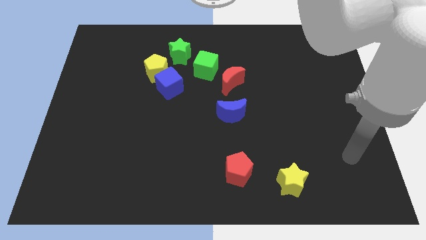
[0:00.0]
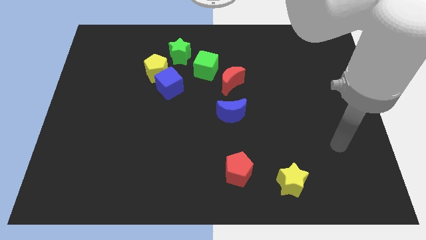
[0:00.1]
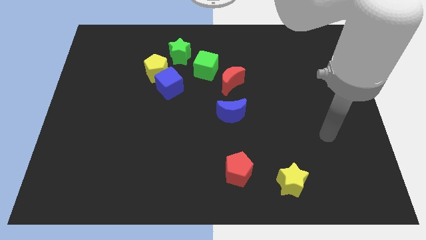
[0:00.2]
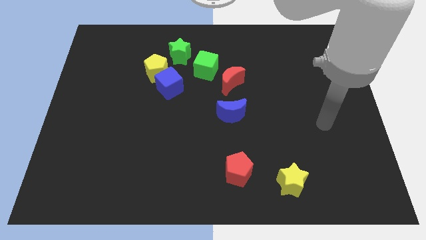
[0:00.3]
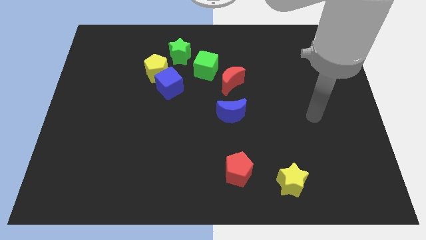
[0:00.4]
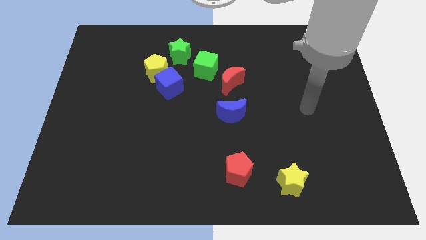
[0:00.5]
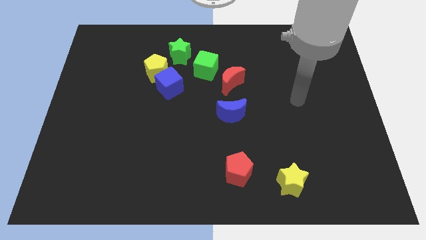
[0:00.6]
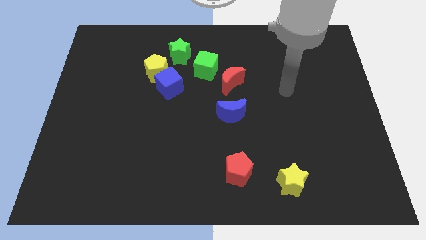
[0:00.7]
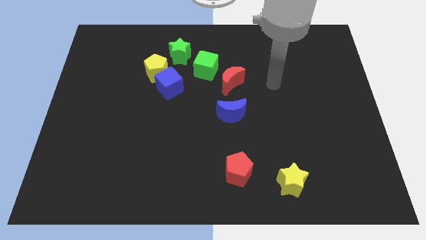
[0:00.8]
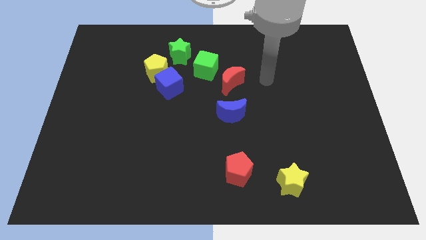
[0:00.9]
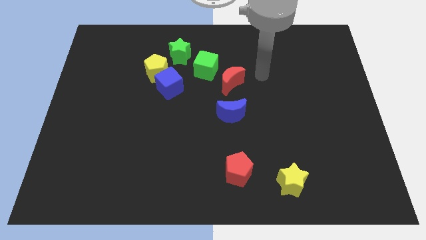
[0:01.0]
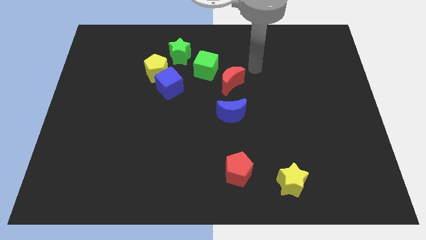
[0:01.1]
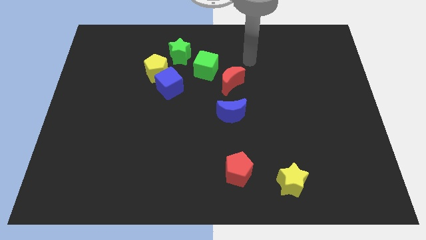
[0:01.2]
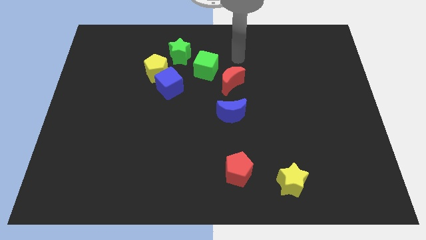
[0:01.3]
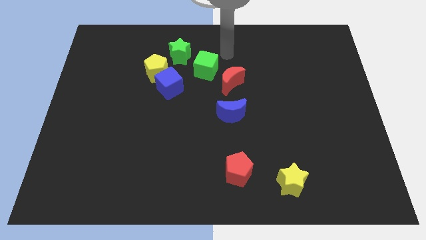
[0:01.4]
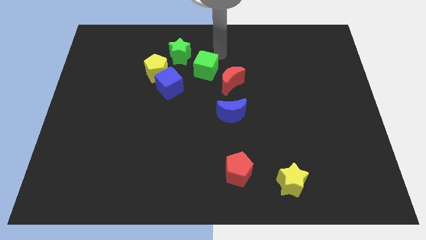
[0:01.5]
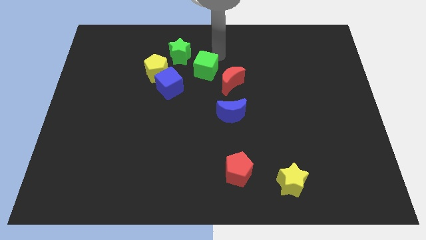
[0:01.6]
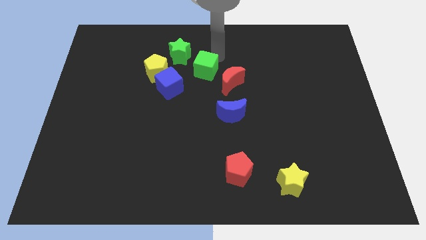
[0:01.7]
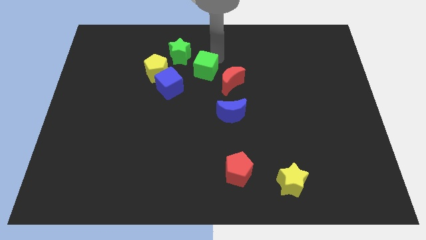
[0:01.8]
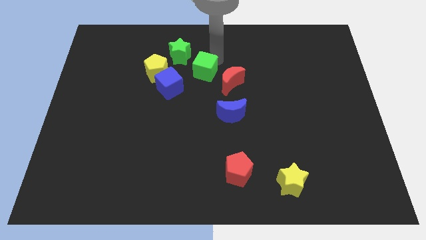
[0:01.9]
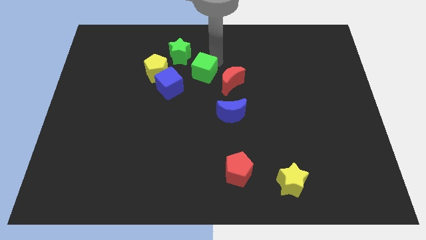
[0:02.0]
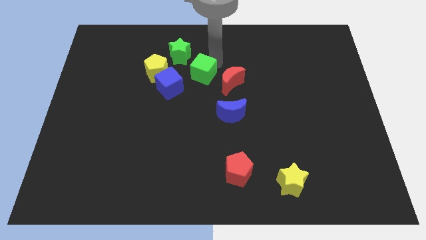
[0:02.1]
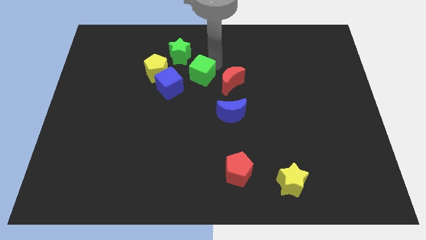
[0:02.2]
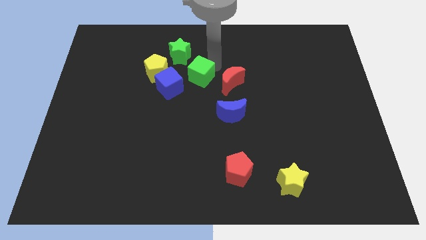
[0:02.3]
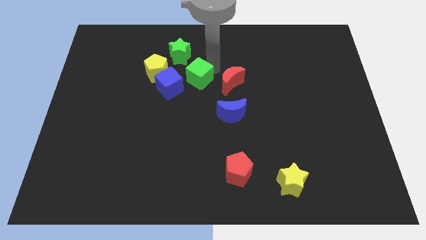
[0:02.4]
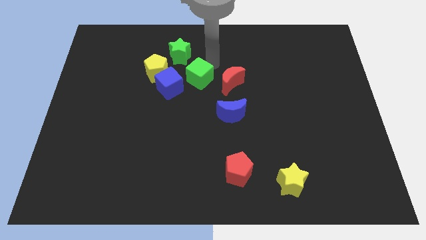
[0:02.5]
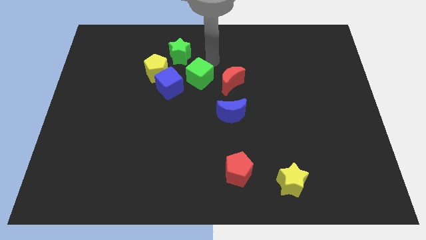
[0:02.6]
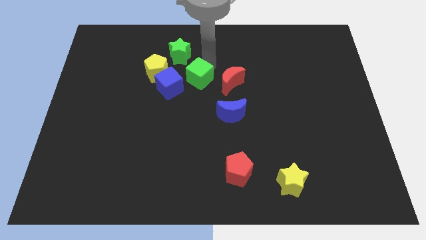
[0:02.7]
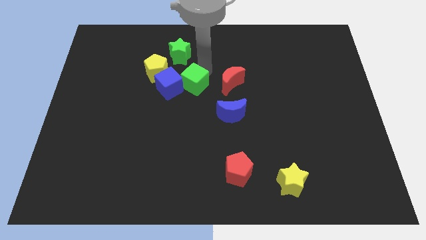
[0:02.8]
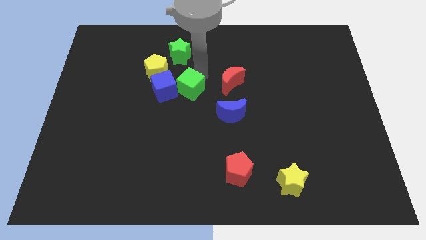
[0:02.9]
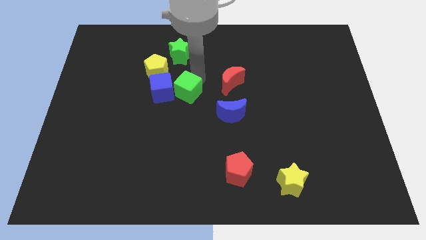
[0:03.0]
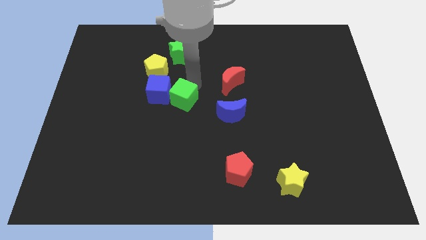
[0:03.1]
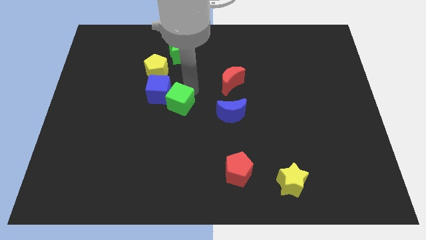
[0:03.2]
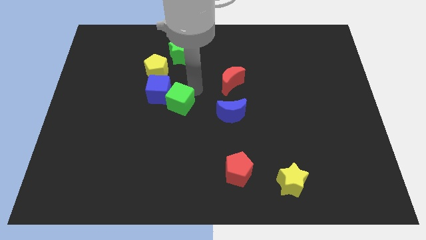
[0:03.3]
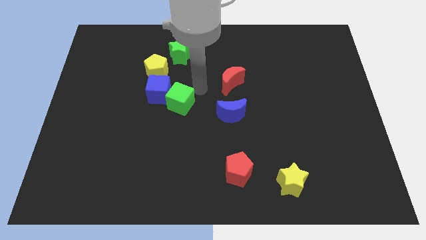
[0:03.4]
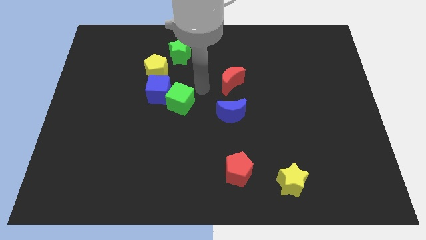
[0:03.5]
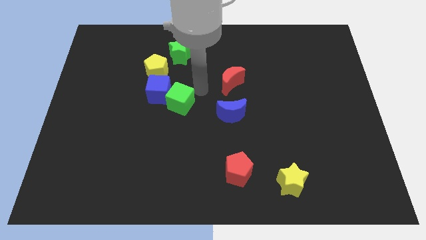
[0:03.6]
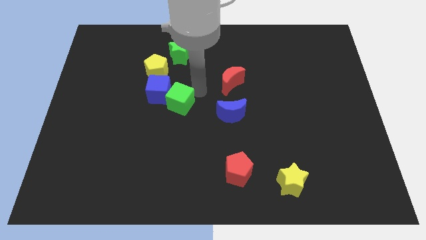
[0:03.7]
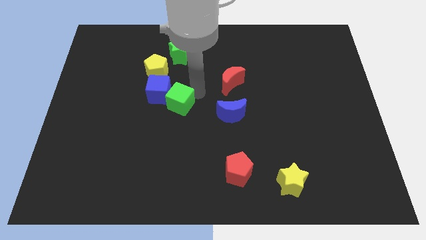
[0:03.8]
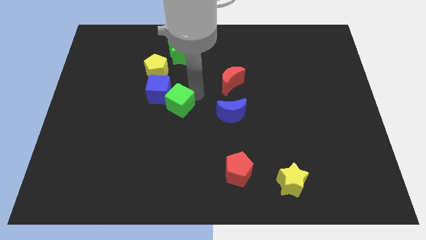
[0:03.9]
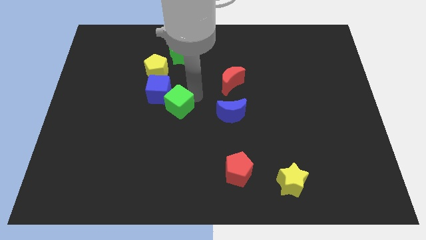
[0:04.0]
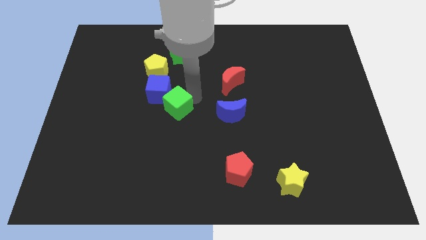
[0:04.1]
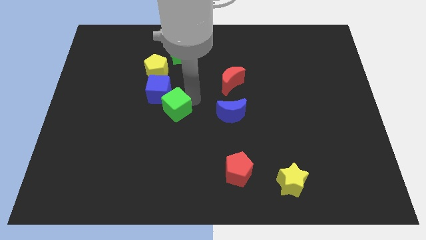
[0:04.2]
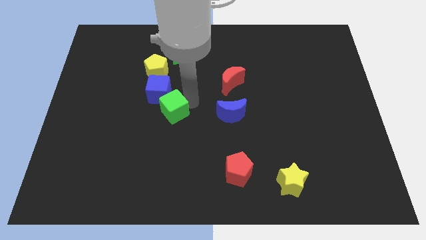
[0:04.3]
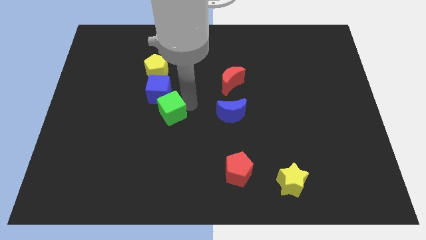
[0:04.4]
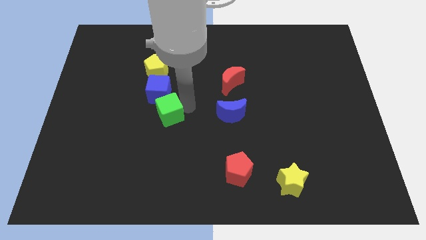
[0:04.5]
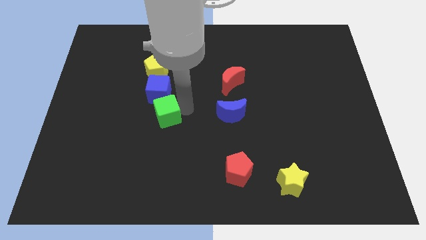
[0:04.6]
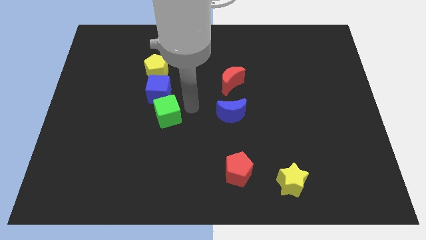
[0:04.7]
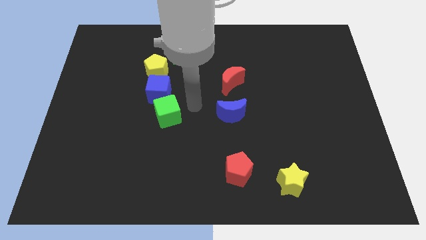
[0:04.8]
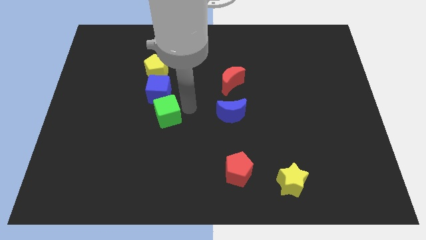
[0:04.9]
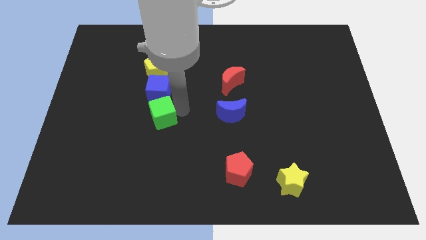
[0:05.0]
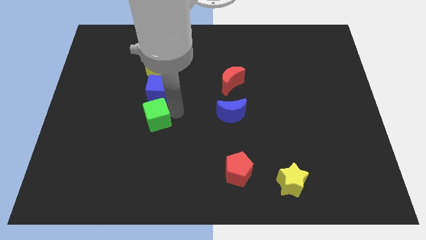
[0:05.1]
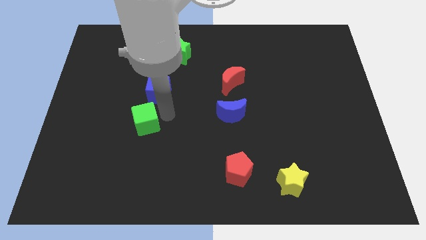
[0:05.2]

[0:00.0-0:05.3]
push the green cube downwards and then to the left

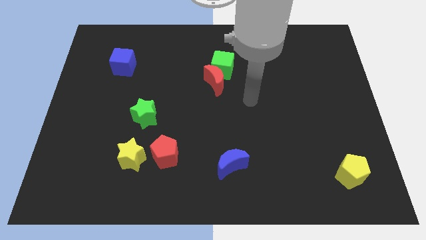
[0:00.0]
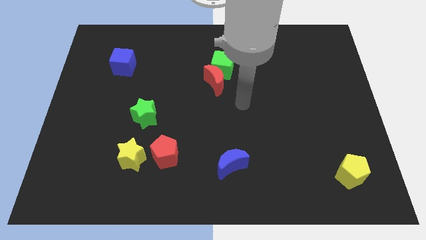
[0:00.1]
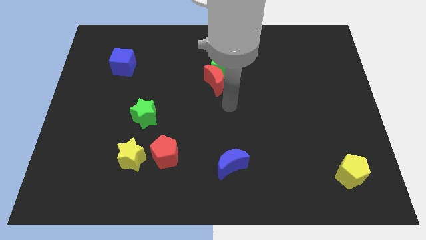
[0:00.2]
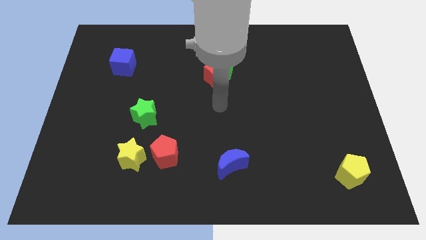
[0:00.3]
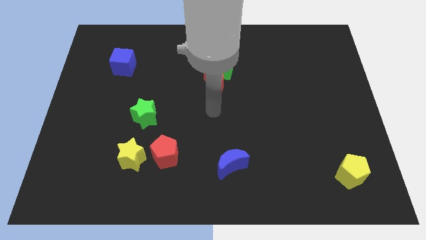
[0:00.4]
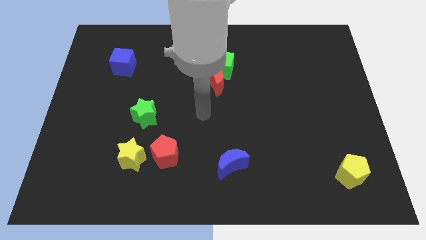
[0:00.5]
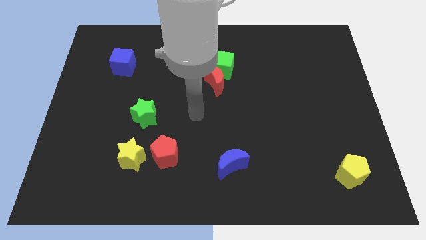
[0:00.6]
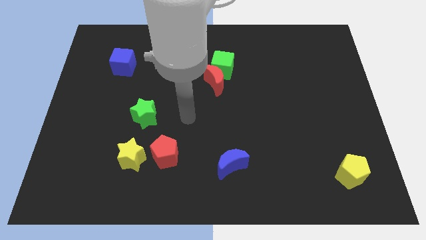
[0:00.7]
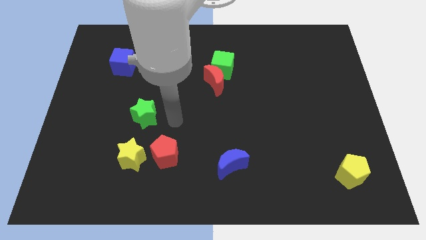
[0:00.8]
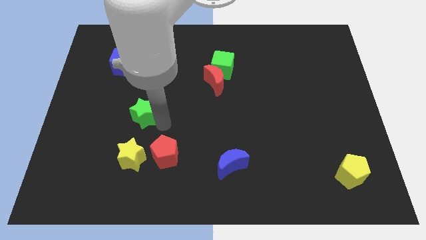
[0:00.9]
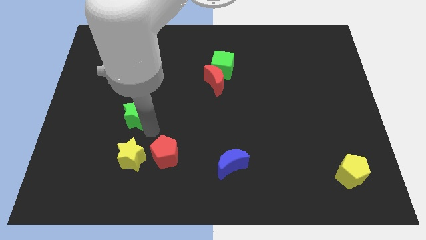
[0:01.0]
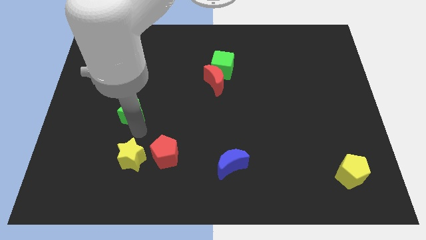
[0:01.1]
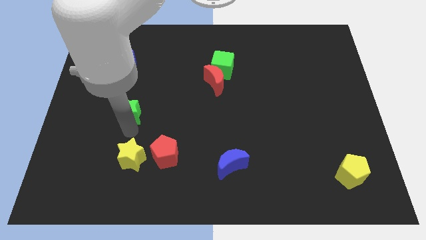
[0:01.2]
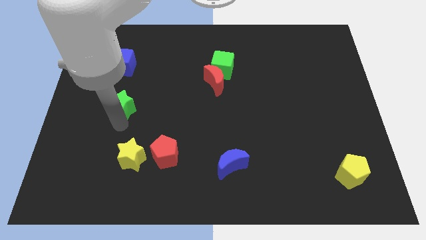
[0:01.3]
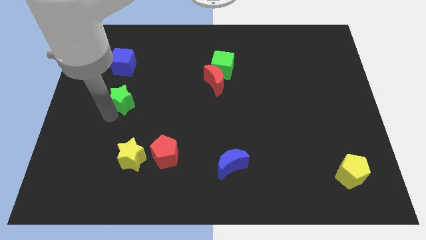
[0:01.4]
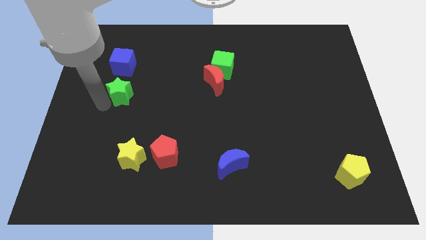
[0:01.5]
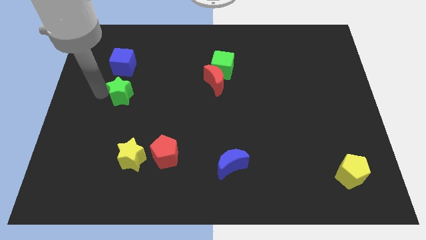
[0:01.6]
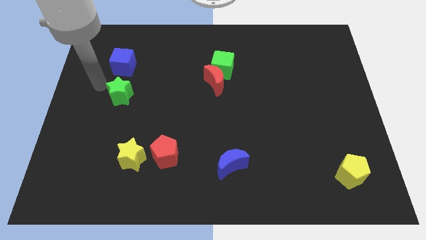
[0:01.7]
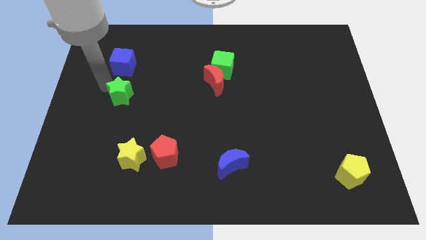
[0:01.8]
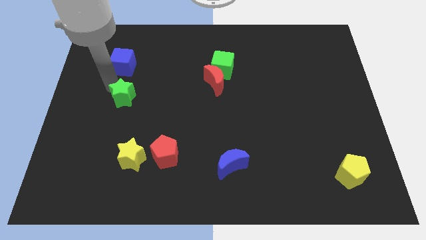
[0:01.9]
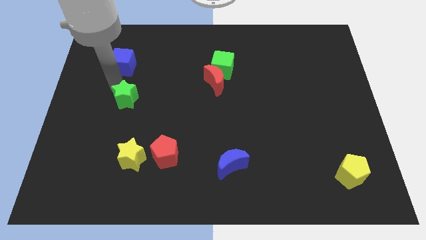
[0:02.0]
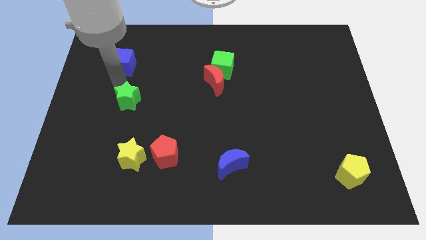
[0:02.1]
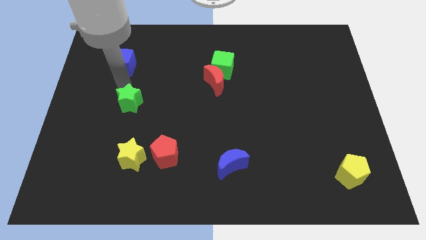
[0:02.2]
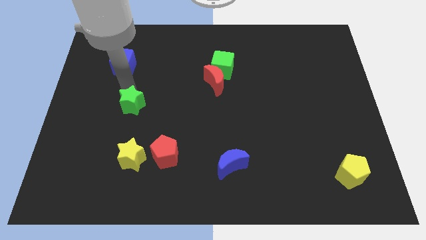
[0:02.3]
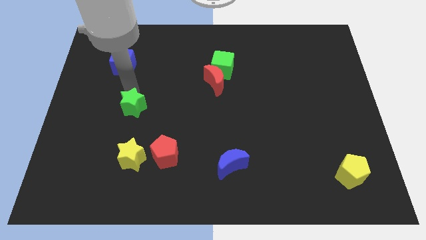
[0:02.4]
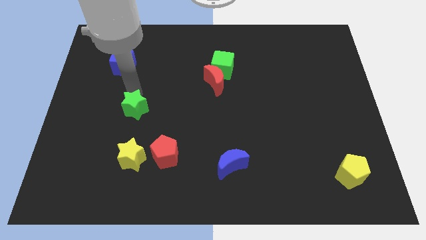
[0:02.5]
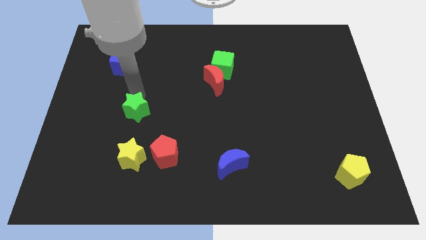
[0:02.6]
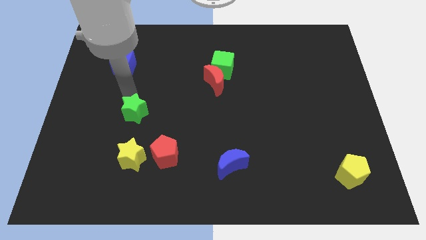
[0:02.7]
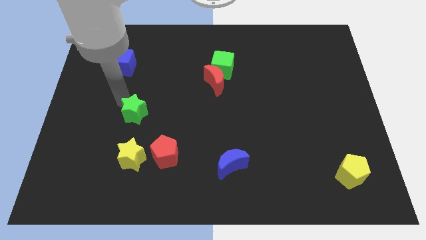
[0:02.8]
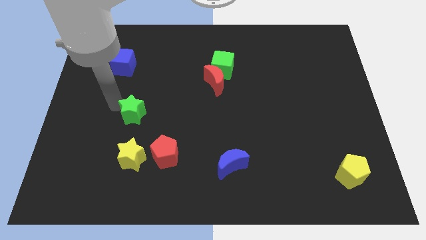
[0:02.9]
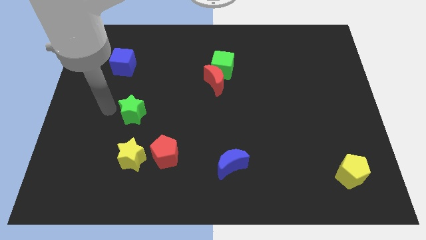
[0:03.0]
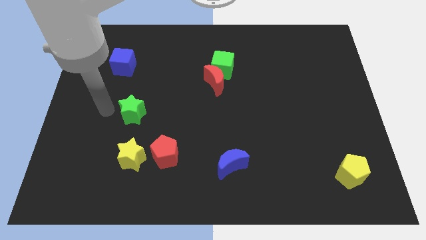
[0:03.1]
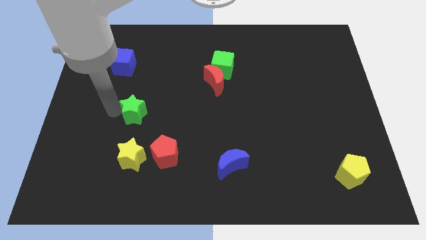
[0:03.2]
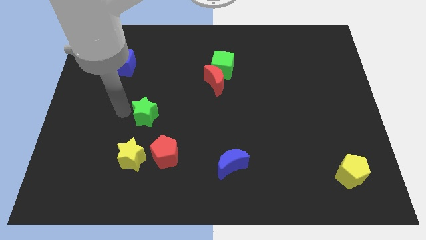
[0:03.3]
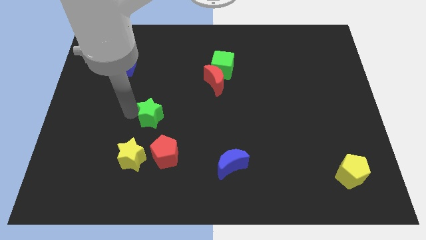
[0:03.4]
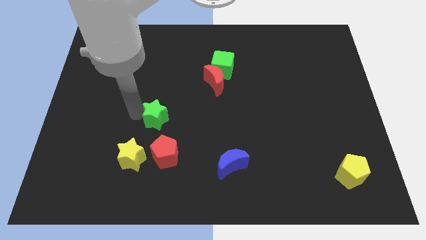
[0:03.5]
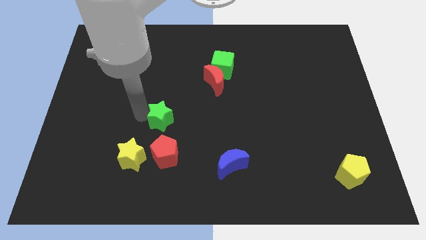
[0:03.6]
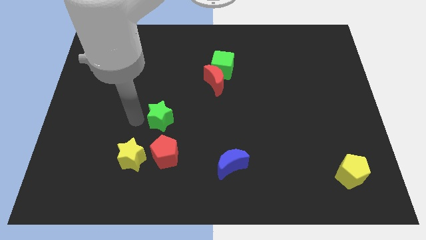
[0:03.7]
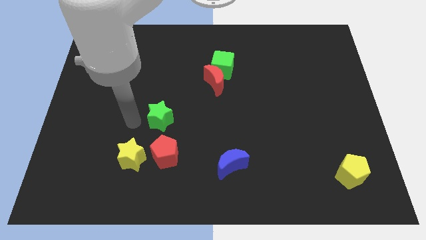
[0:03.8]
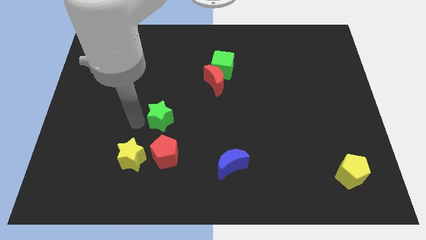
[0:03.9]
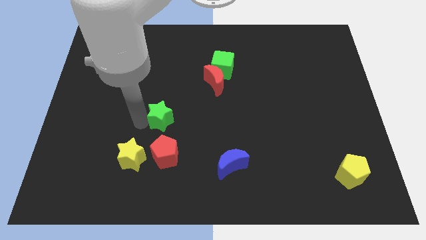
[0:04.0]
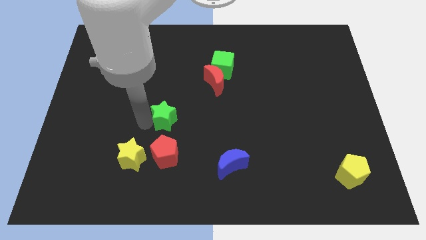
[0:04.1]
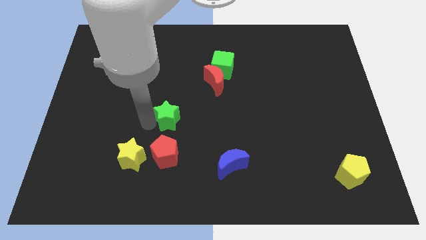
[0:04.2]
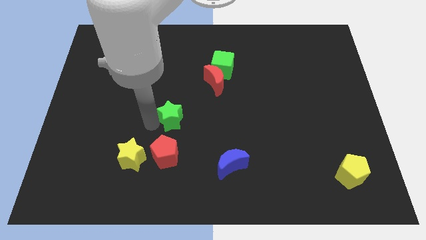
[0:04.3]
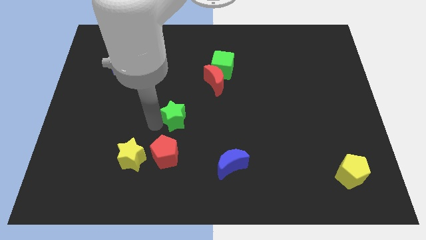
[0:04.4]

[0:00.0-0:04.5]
slide the green star to the right slightly
